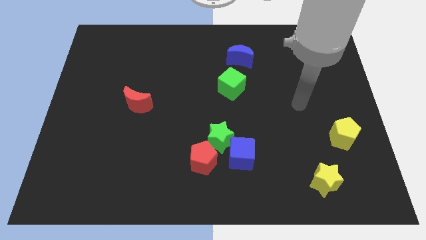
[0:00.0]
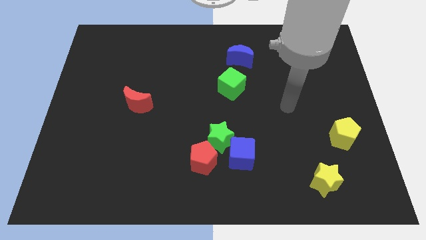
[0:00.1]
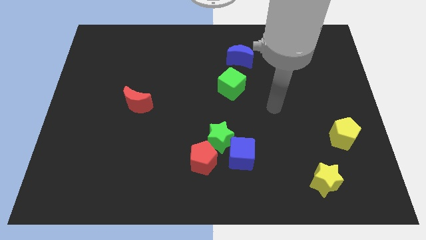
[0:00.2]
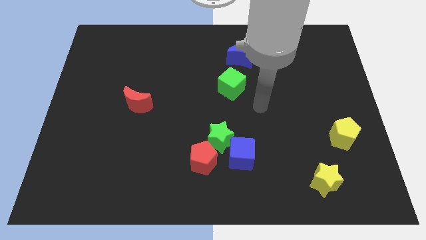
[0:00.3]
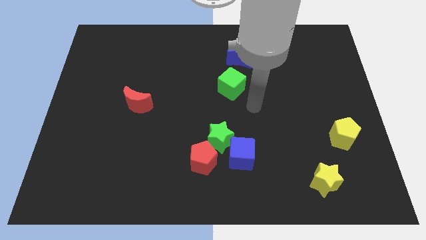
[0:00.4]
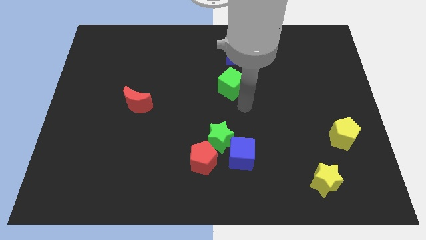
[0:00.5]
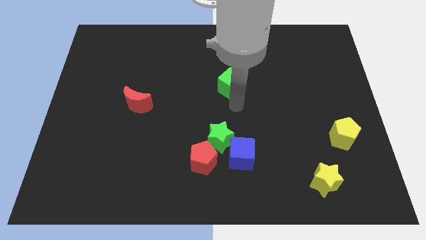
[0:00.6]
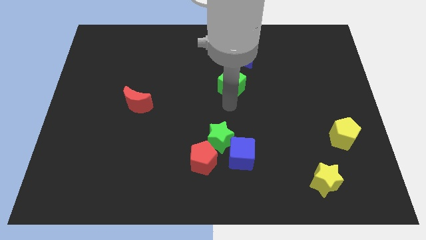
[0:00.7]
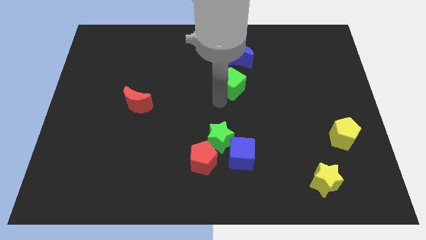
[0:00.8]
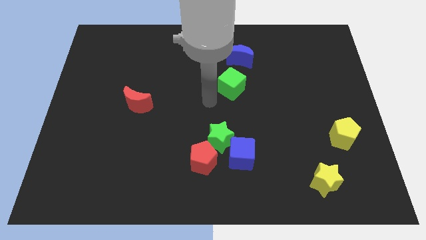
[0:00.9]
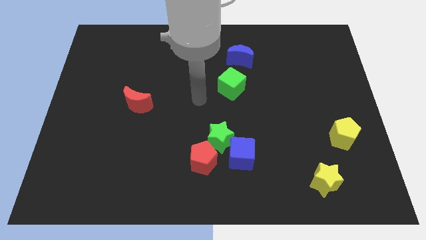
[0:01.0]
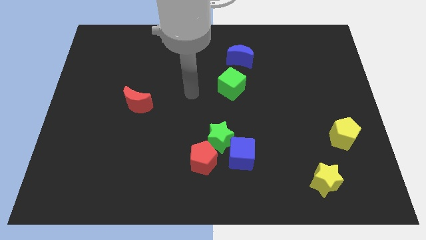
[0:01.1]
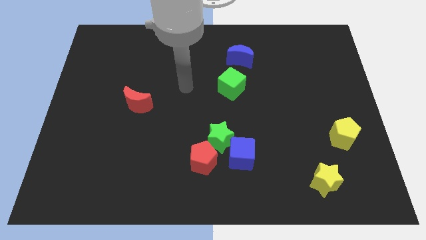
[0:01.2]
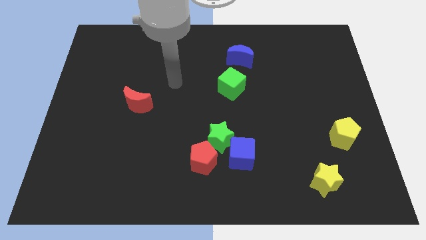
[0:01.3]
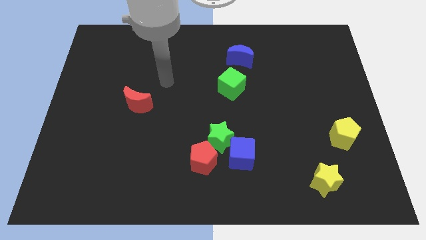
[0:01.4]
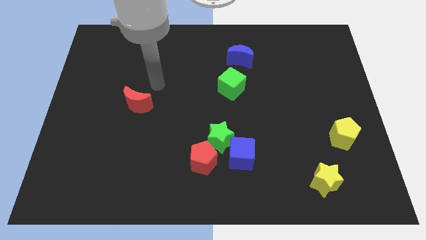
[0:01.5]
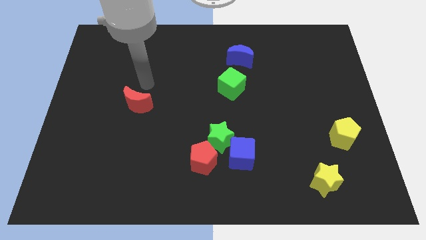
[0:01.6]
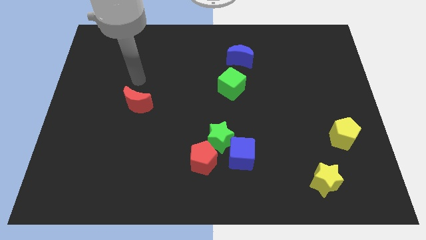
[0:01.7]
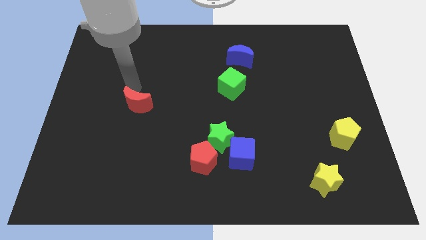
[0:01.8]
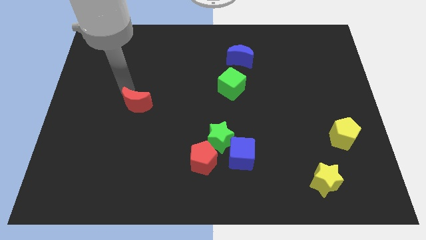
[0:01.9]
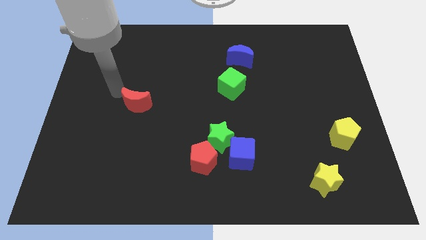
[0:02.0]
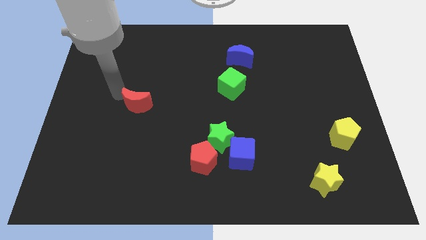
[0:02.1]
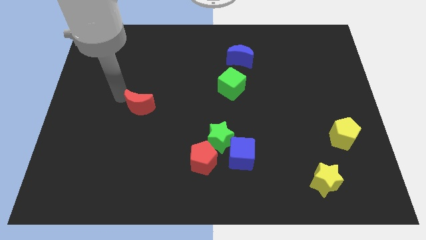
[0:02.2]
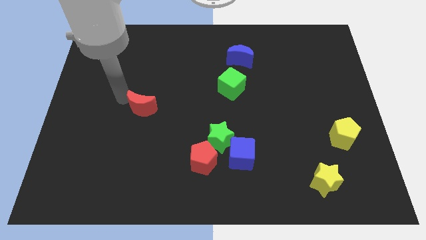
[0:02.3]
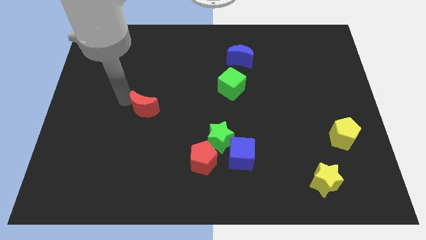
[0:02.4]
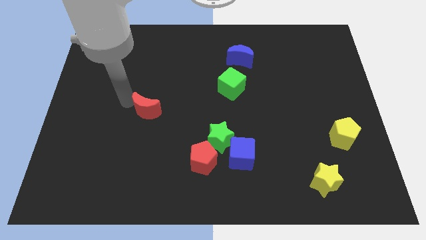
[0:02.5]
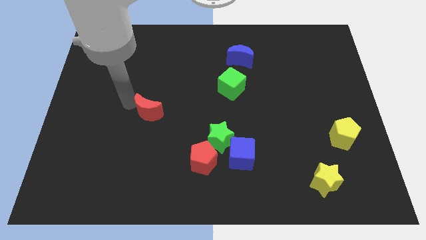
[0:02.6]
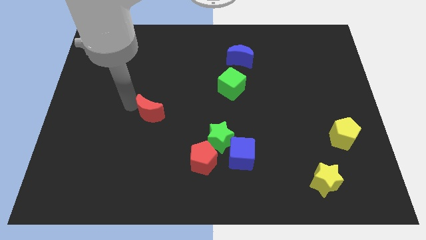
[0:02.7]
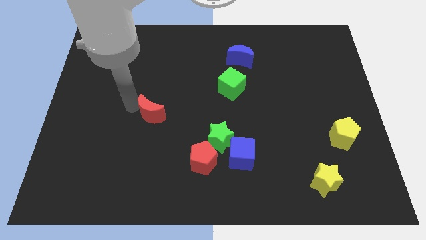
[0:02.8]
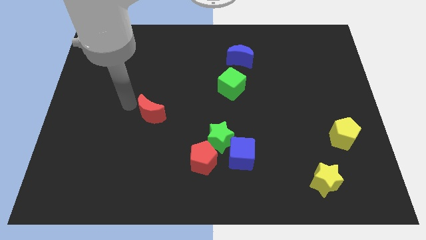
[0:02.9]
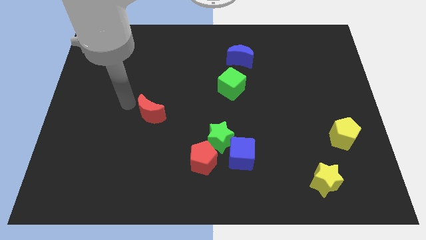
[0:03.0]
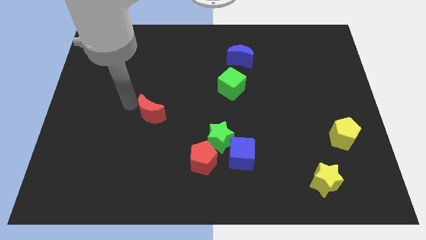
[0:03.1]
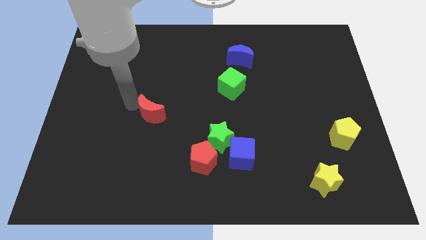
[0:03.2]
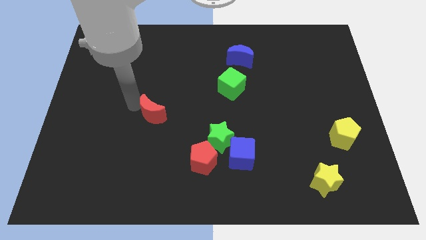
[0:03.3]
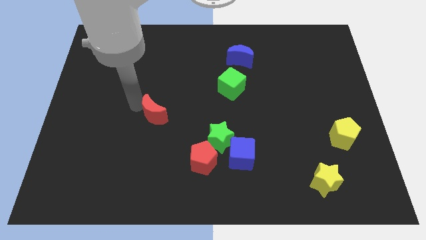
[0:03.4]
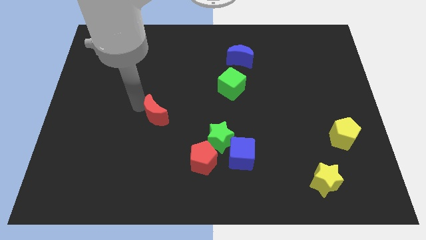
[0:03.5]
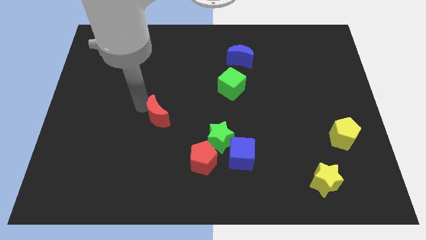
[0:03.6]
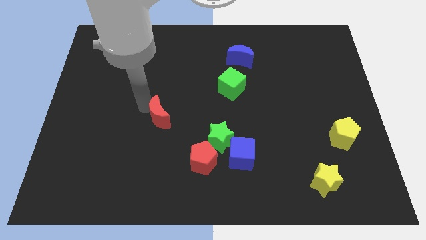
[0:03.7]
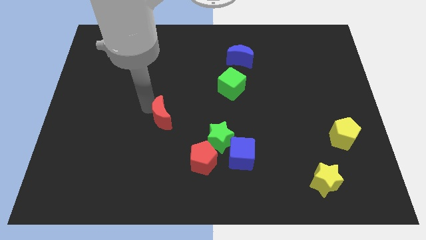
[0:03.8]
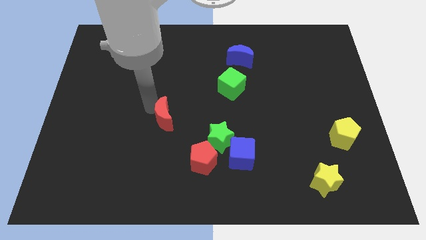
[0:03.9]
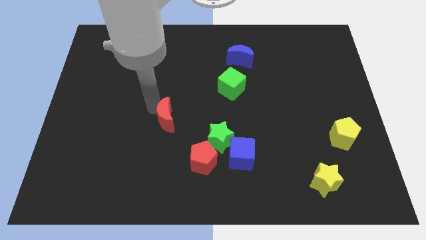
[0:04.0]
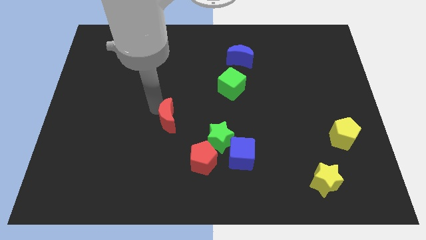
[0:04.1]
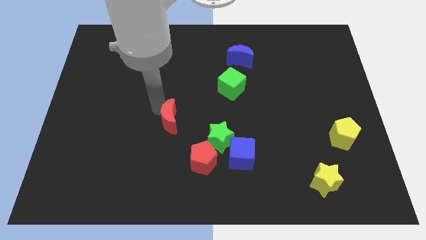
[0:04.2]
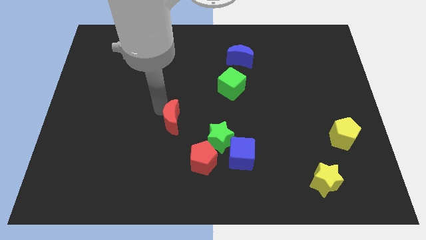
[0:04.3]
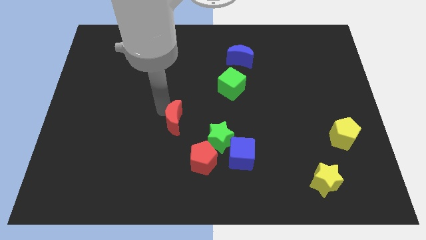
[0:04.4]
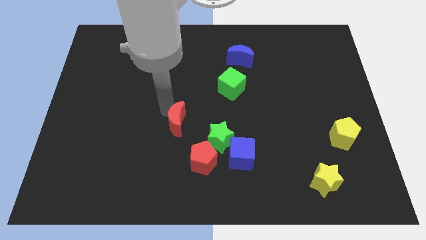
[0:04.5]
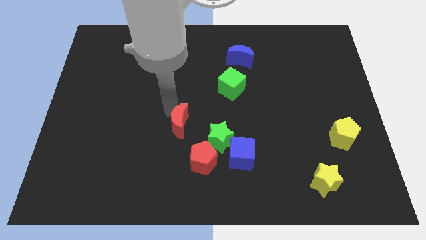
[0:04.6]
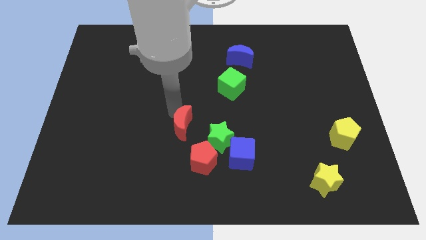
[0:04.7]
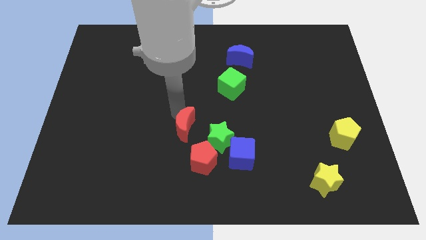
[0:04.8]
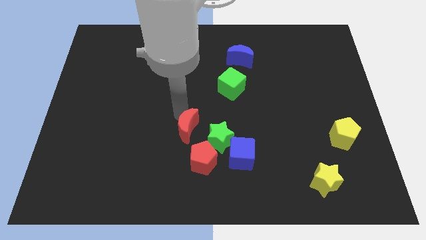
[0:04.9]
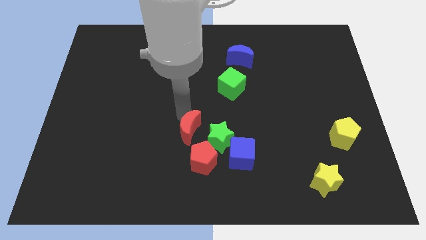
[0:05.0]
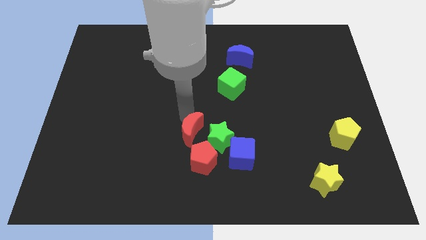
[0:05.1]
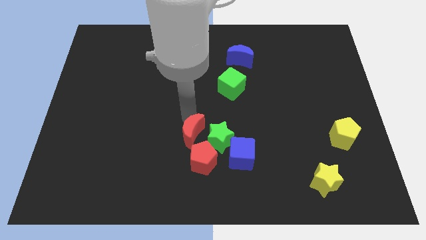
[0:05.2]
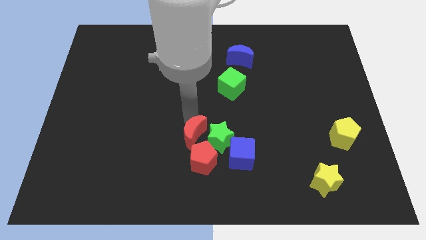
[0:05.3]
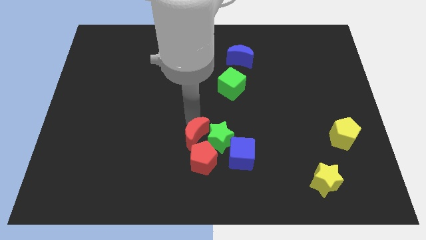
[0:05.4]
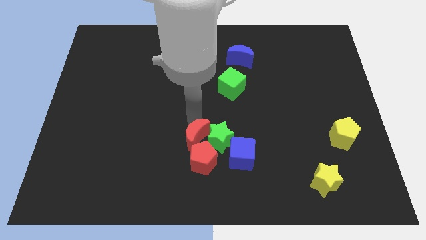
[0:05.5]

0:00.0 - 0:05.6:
move the red moon towards the red pentagon

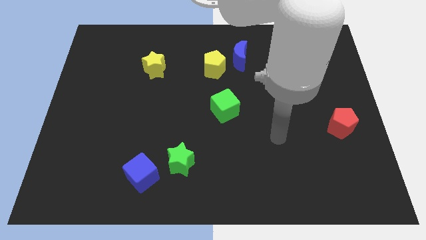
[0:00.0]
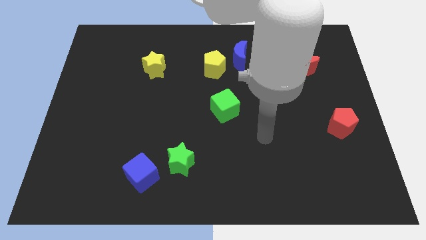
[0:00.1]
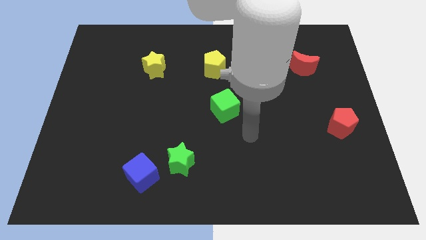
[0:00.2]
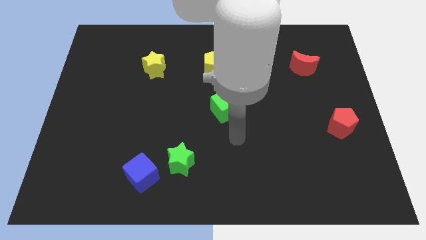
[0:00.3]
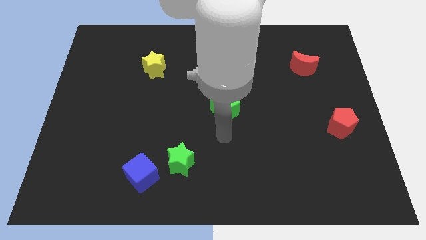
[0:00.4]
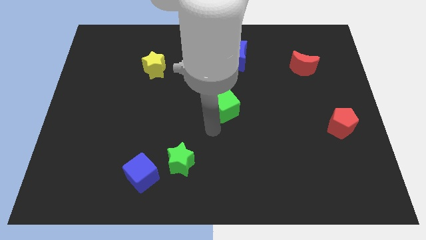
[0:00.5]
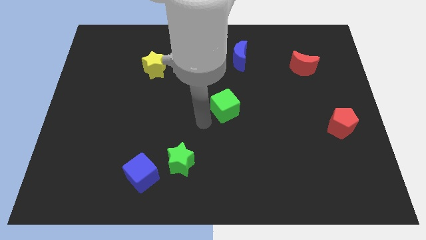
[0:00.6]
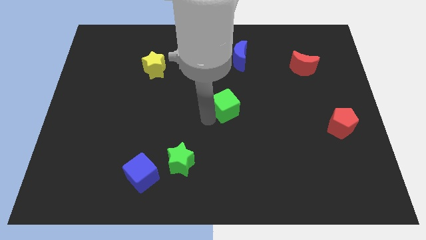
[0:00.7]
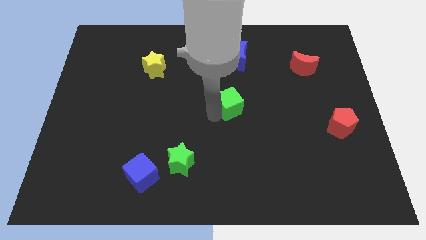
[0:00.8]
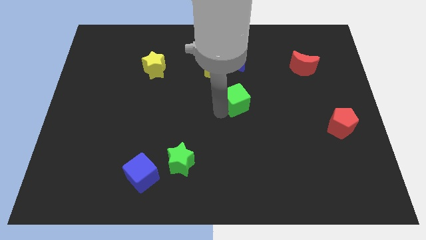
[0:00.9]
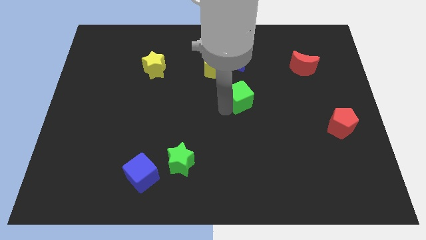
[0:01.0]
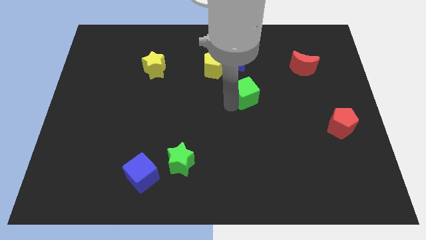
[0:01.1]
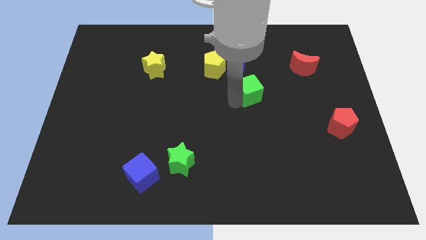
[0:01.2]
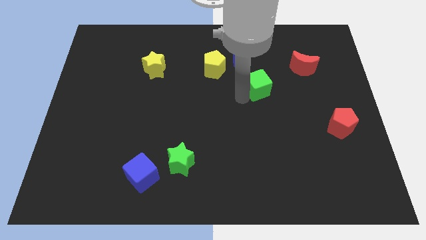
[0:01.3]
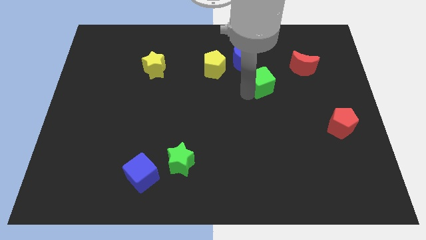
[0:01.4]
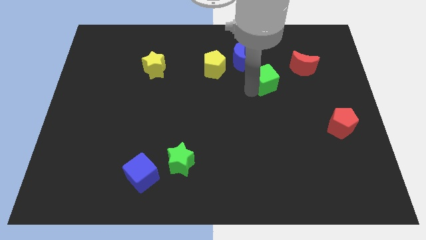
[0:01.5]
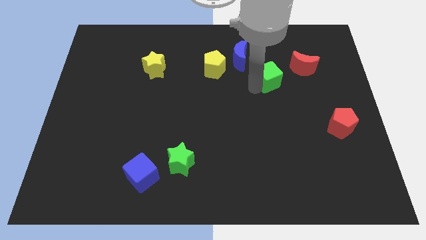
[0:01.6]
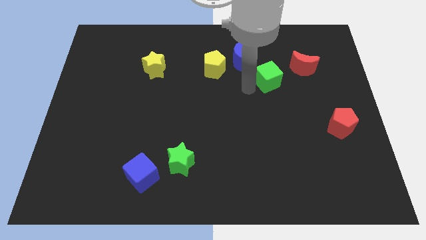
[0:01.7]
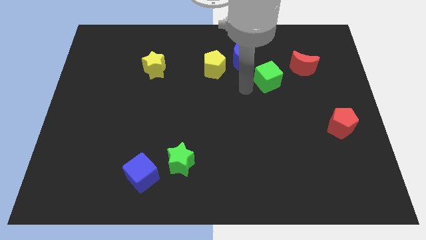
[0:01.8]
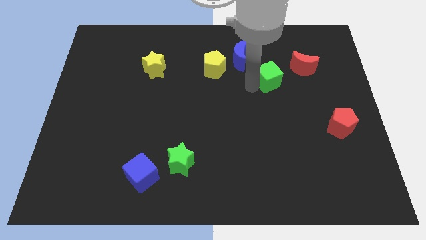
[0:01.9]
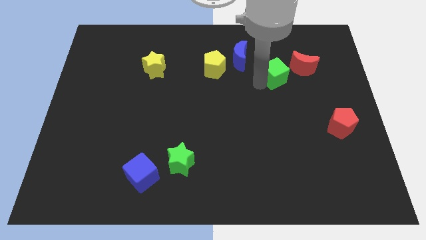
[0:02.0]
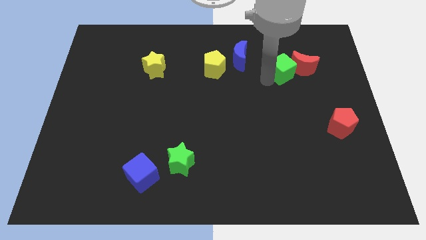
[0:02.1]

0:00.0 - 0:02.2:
move the green cube close to the red moon
